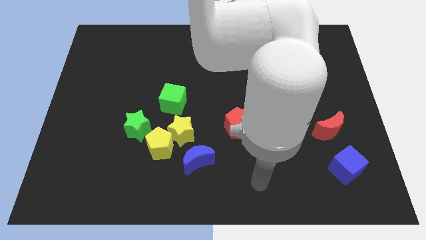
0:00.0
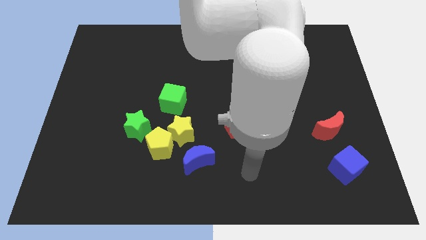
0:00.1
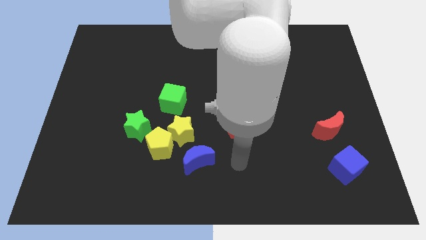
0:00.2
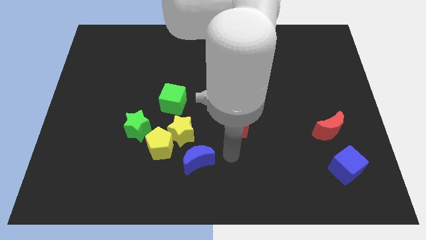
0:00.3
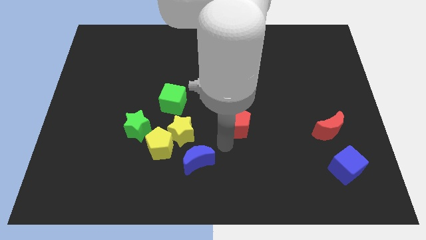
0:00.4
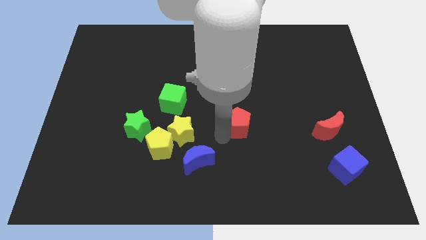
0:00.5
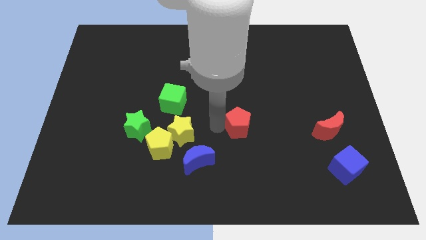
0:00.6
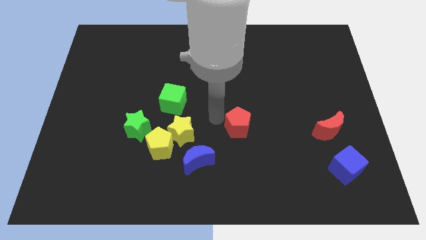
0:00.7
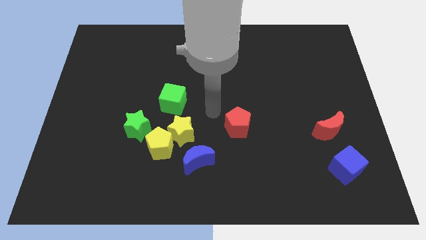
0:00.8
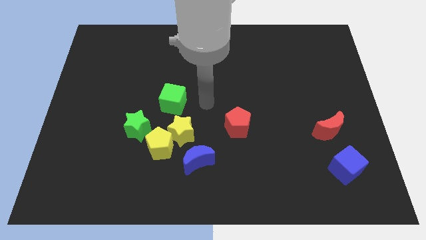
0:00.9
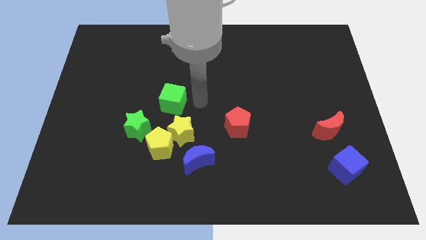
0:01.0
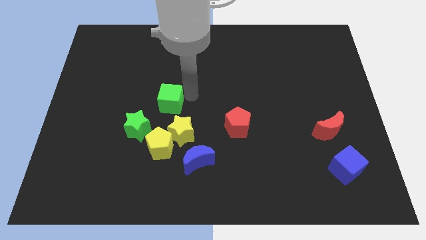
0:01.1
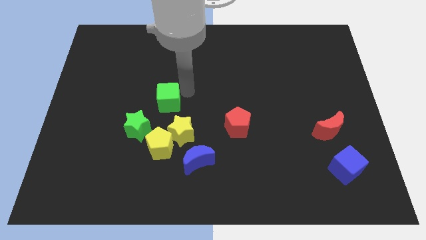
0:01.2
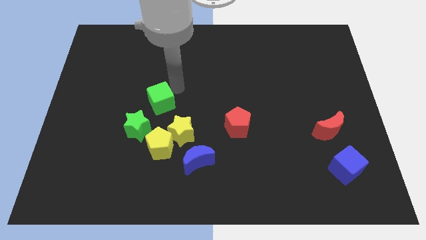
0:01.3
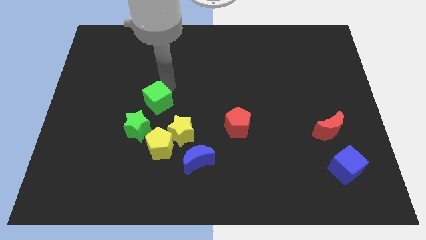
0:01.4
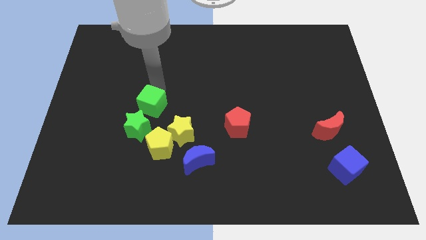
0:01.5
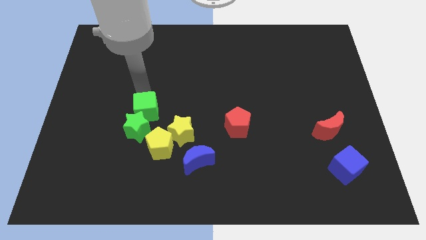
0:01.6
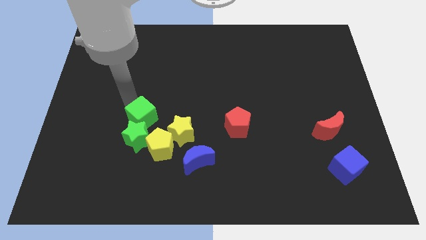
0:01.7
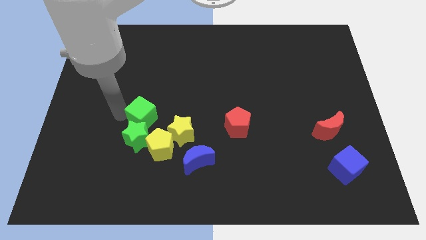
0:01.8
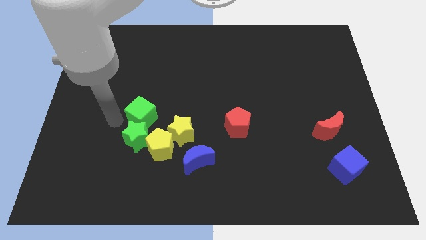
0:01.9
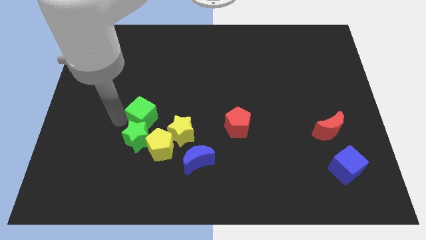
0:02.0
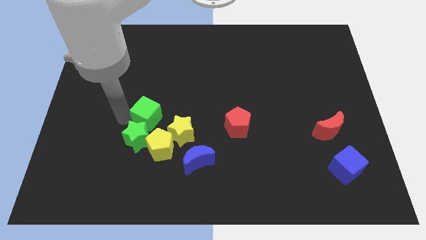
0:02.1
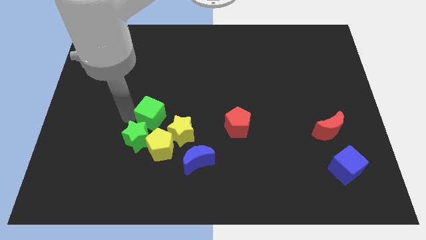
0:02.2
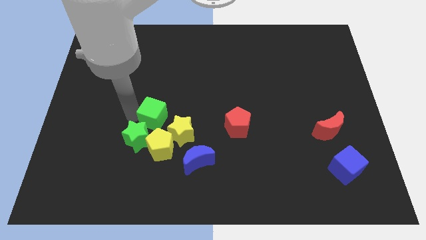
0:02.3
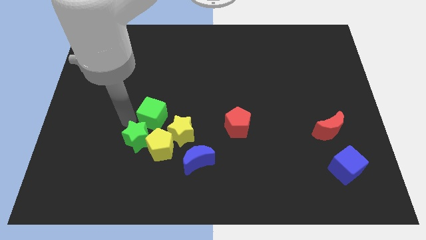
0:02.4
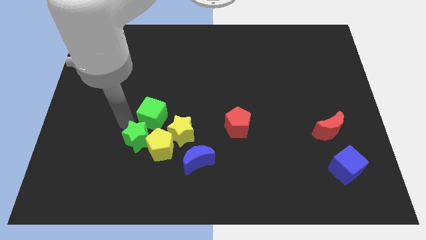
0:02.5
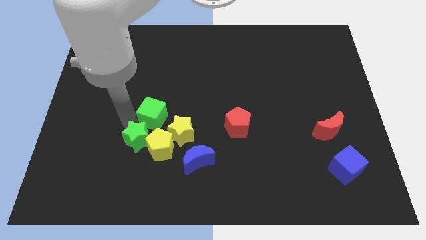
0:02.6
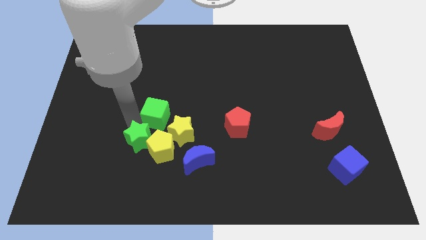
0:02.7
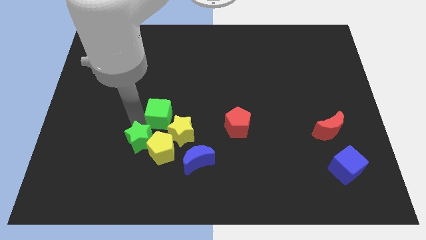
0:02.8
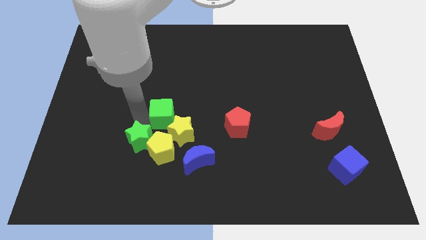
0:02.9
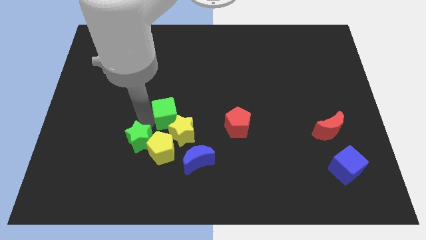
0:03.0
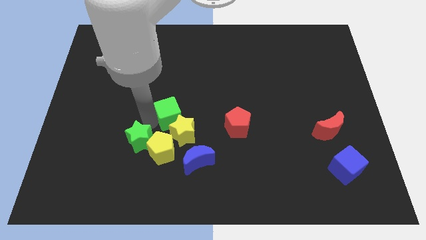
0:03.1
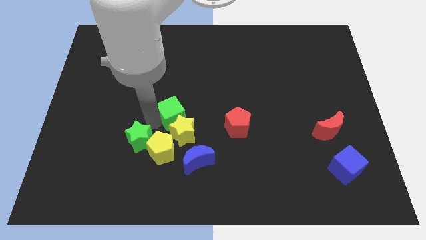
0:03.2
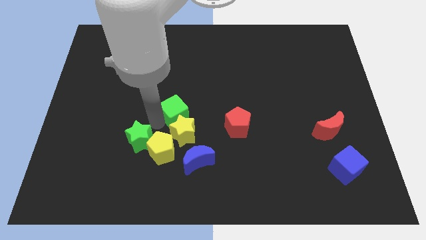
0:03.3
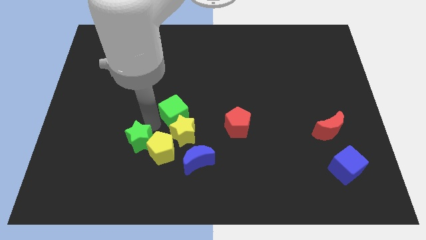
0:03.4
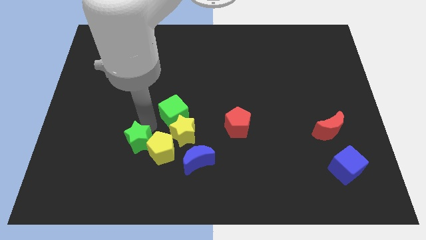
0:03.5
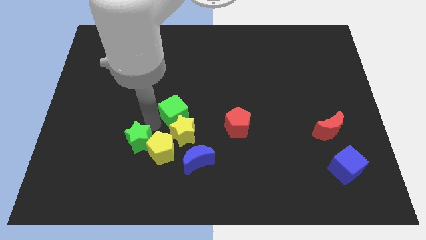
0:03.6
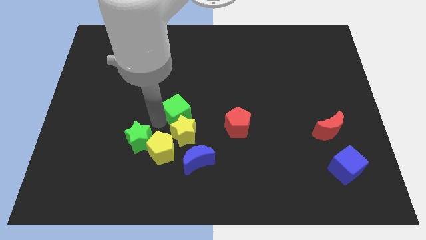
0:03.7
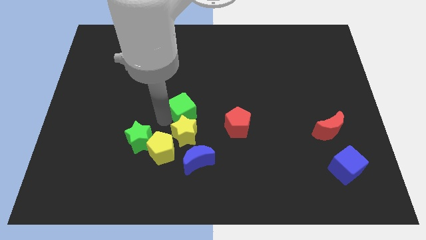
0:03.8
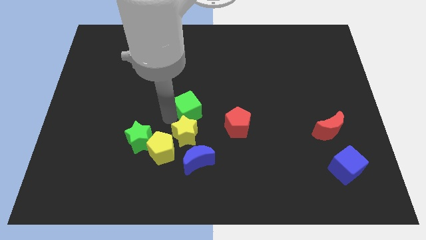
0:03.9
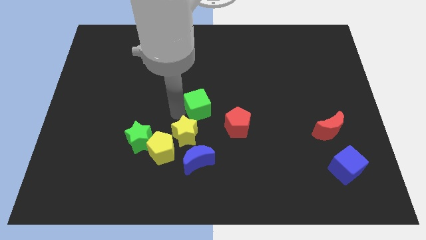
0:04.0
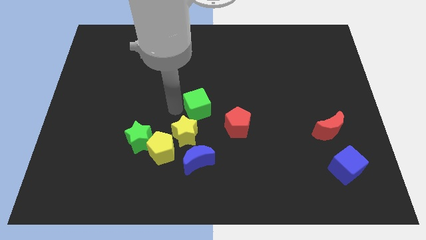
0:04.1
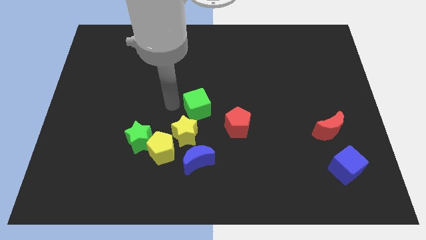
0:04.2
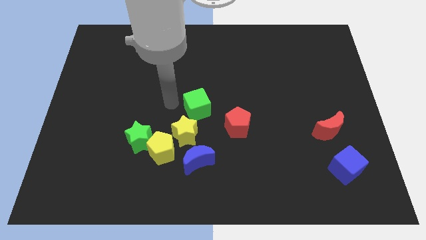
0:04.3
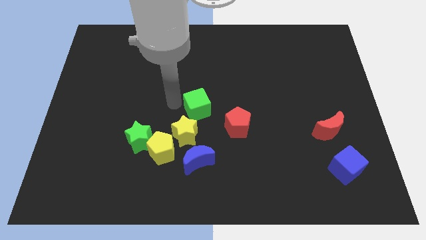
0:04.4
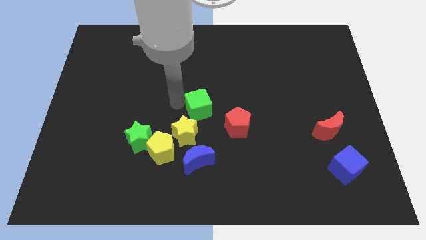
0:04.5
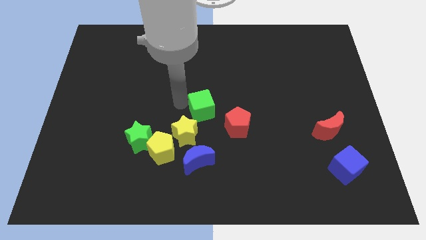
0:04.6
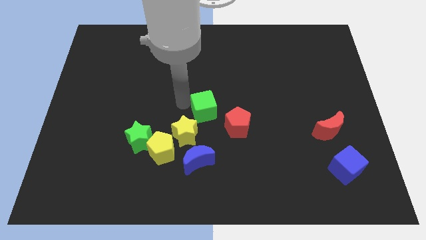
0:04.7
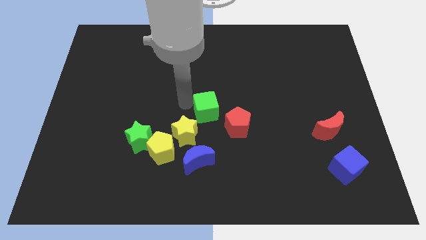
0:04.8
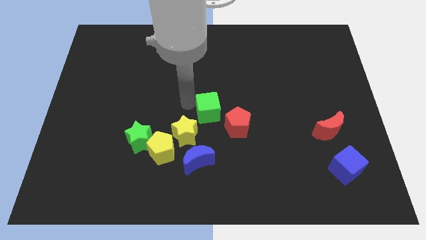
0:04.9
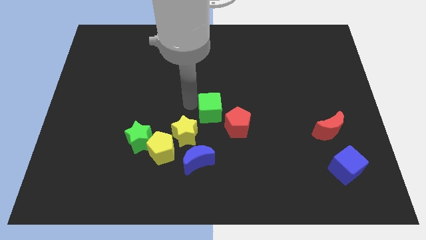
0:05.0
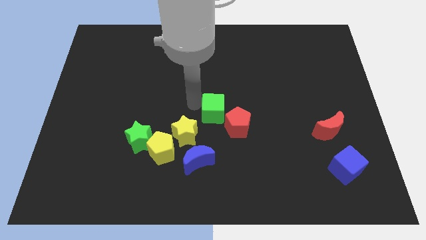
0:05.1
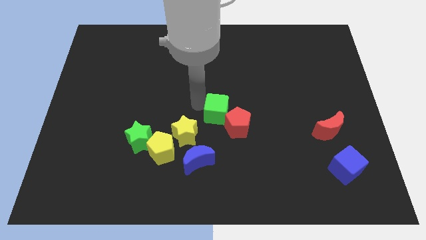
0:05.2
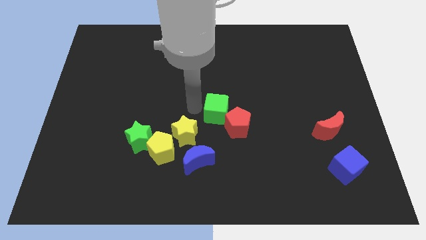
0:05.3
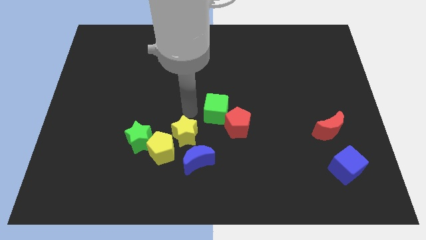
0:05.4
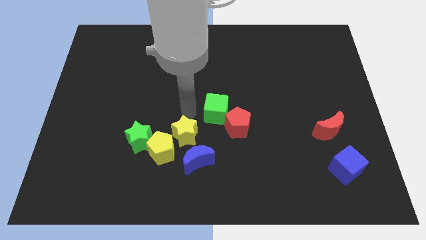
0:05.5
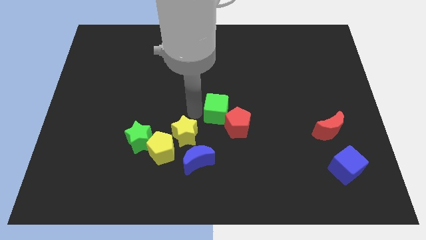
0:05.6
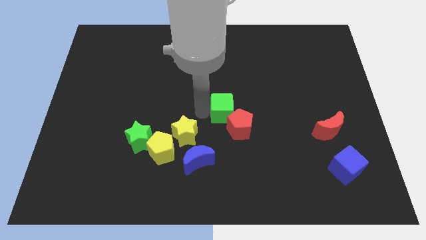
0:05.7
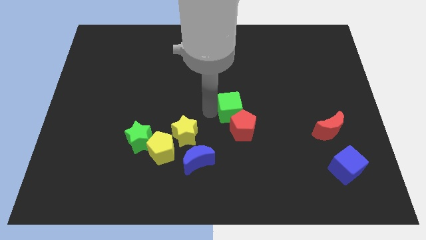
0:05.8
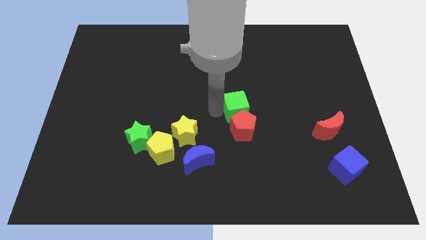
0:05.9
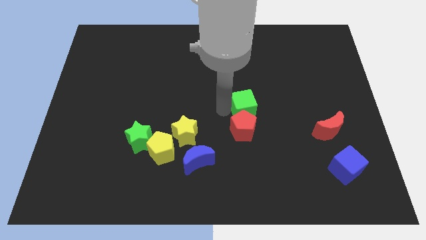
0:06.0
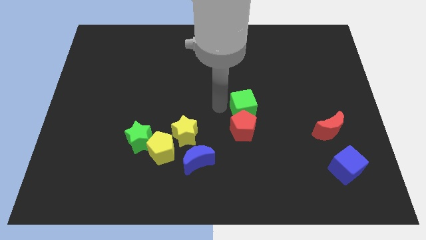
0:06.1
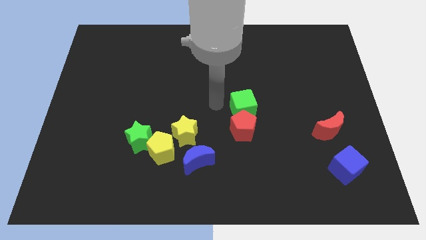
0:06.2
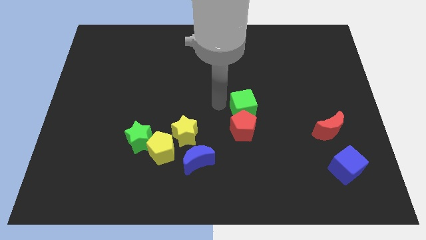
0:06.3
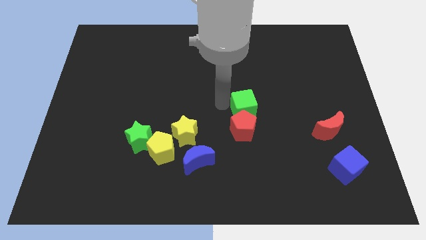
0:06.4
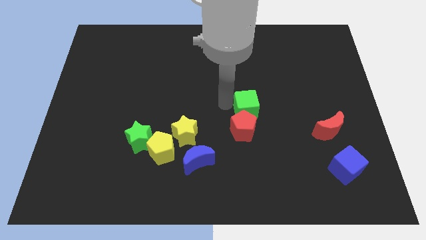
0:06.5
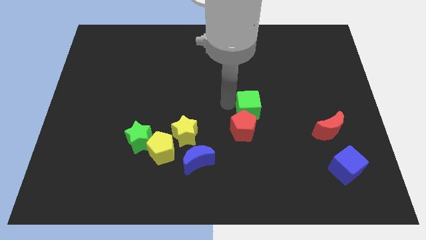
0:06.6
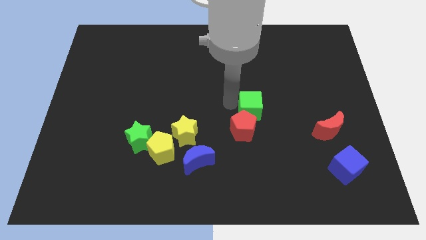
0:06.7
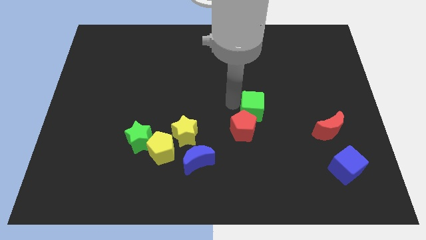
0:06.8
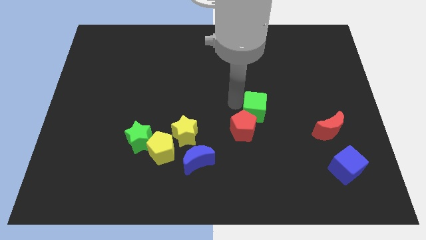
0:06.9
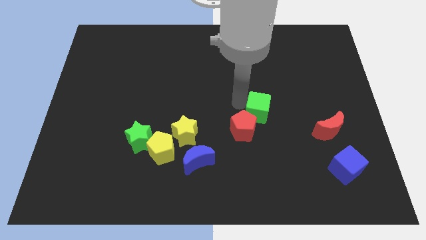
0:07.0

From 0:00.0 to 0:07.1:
push the green cube right

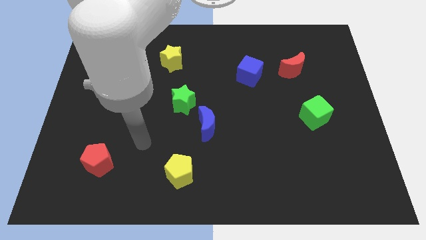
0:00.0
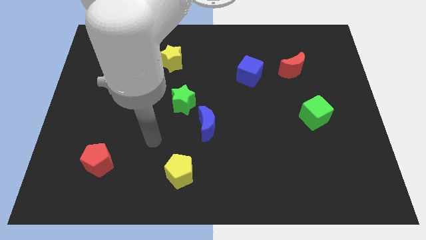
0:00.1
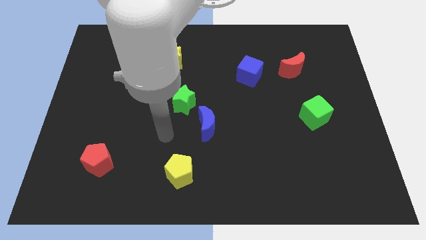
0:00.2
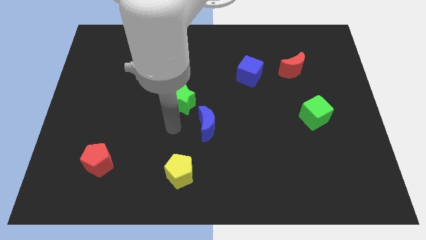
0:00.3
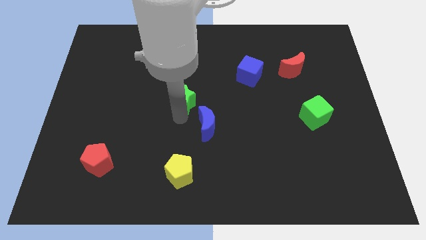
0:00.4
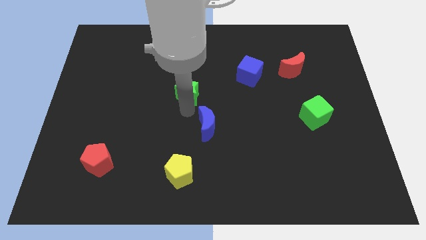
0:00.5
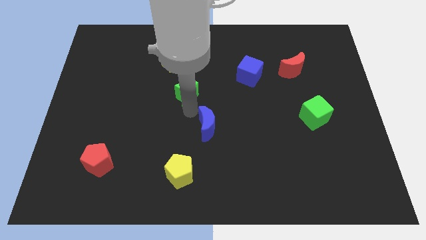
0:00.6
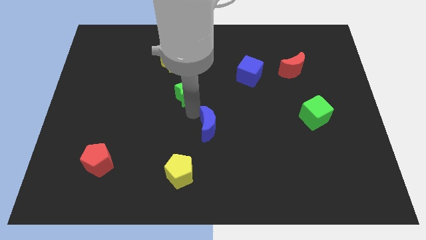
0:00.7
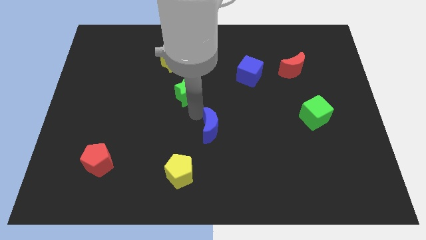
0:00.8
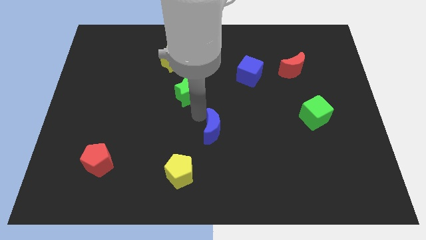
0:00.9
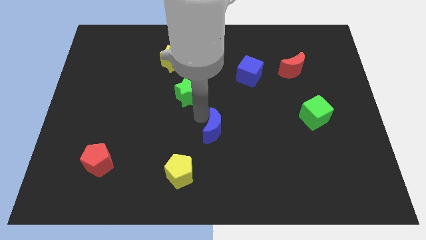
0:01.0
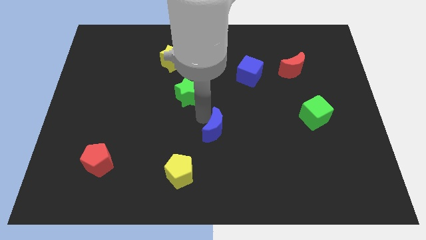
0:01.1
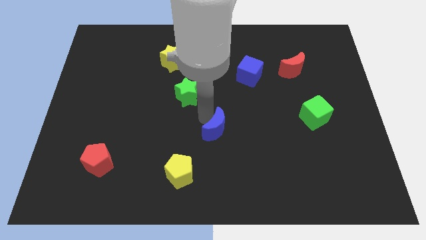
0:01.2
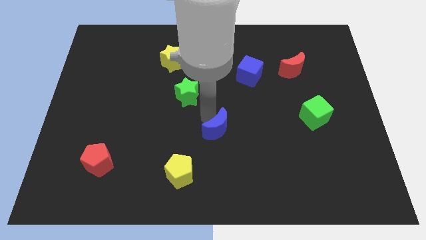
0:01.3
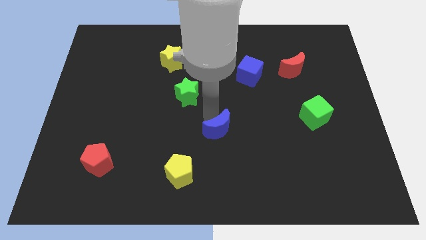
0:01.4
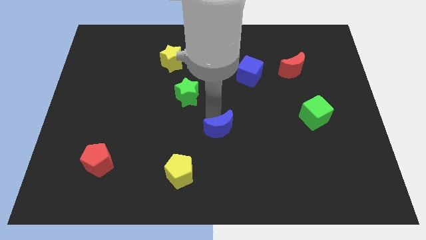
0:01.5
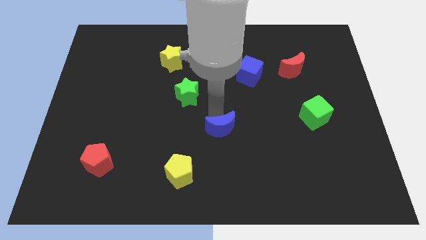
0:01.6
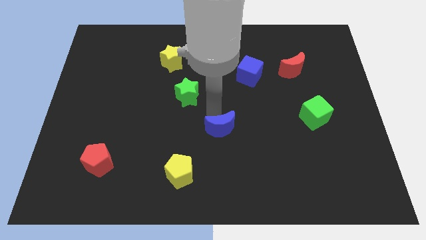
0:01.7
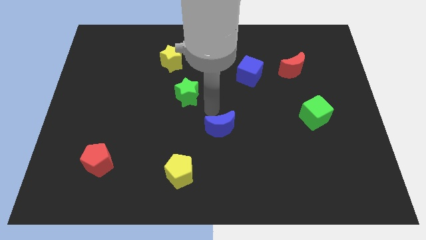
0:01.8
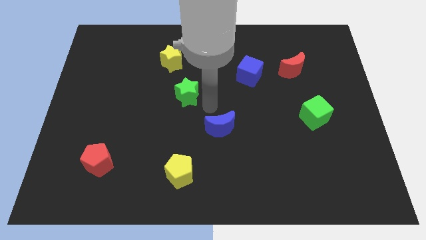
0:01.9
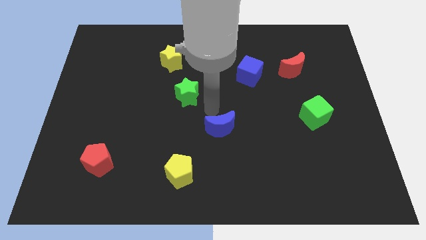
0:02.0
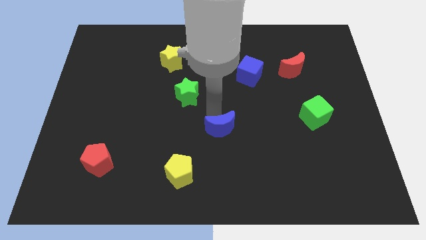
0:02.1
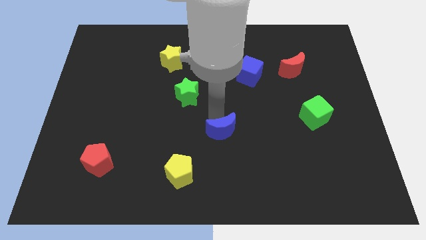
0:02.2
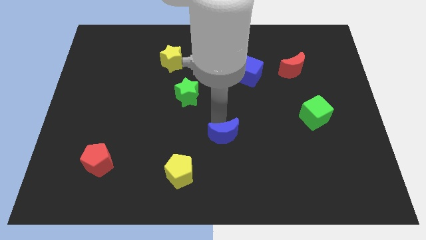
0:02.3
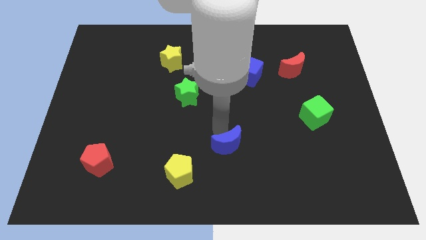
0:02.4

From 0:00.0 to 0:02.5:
slide the blue moon a bit diagonally downwards and to the right
